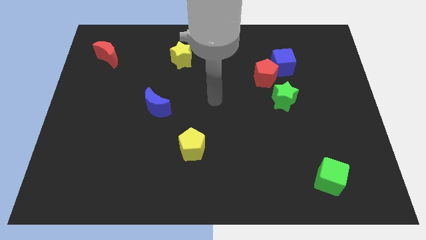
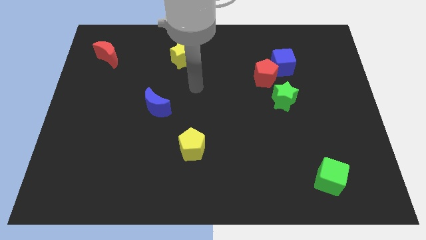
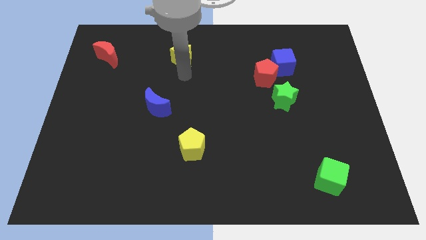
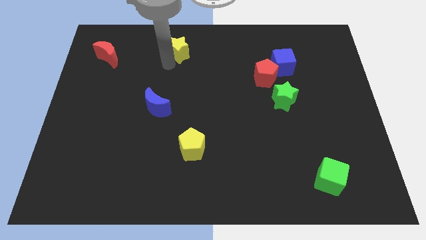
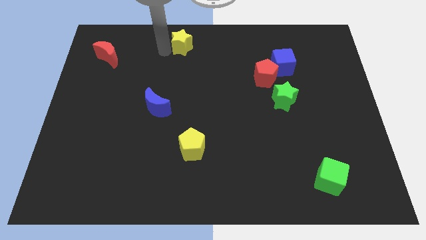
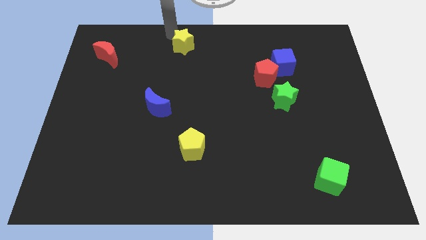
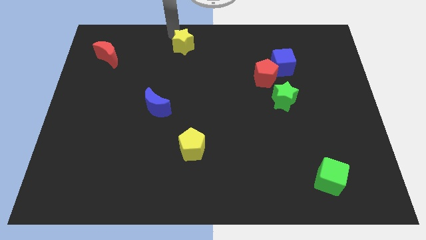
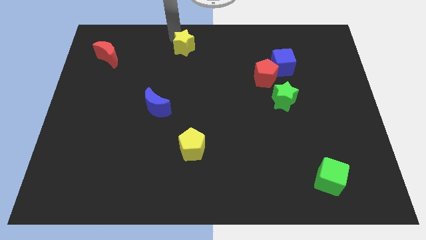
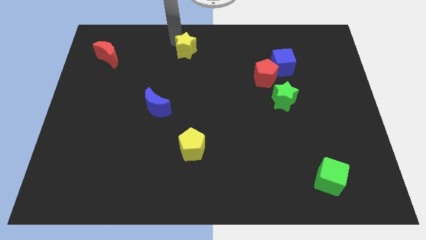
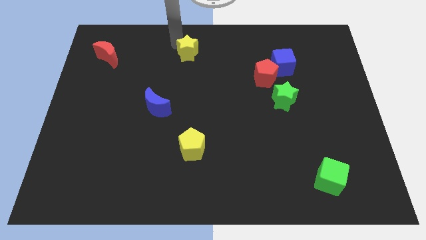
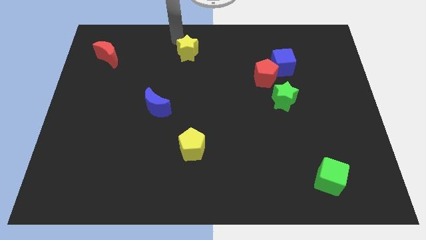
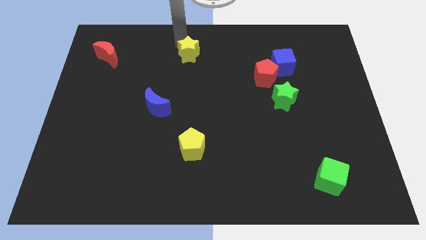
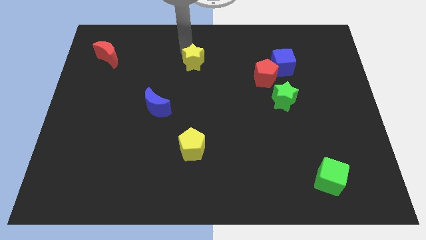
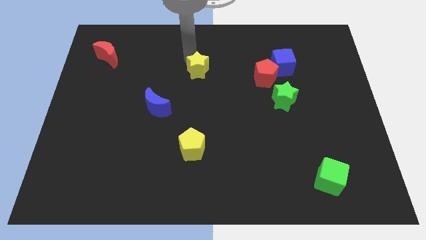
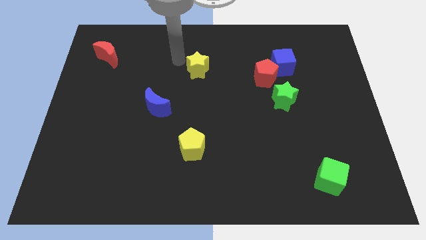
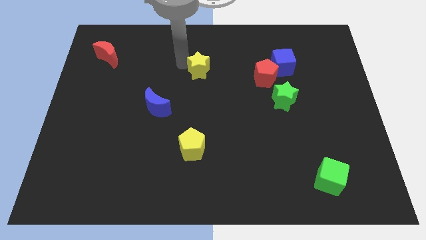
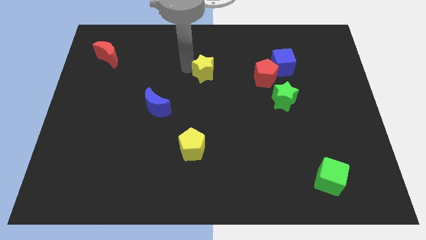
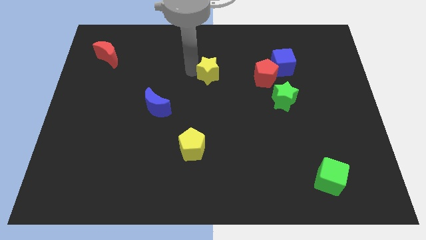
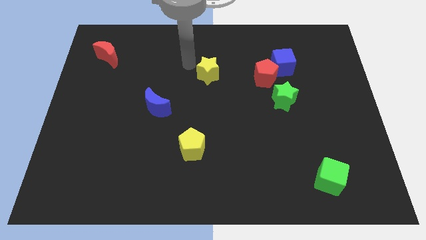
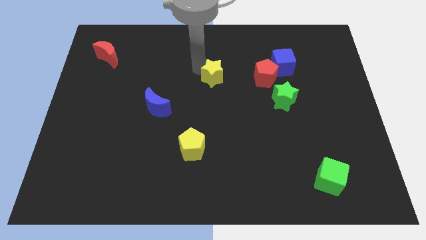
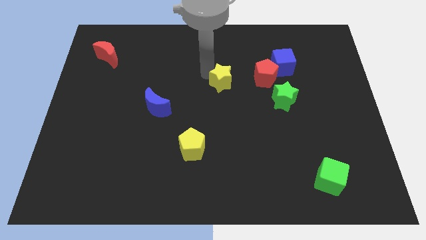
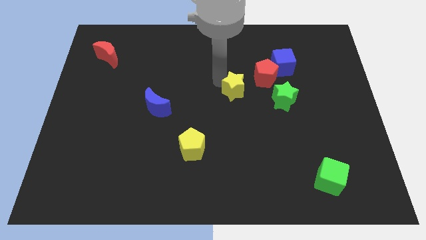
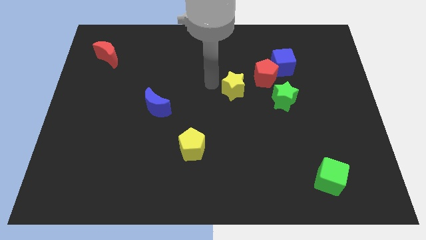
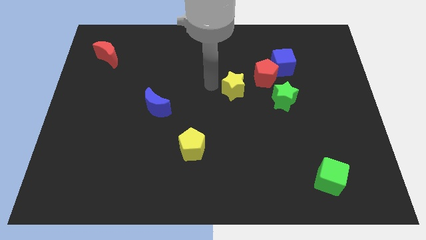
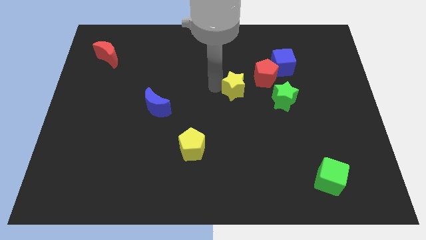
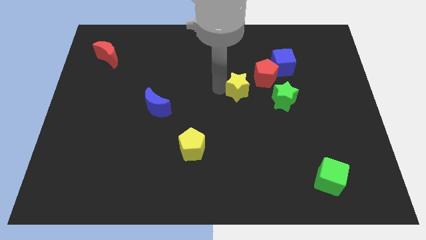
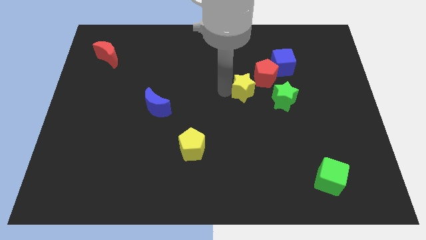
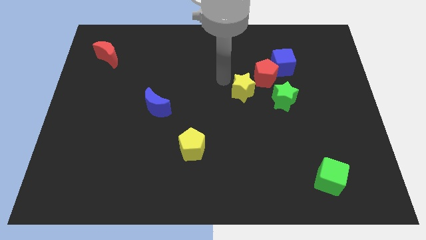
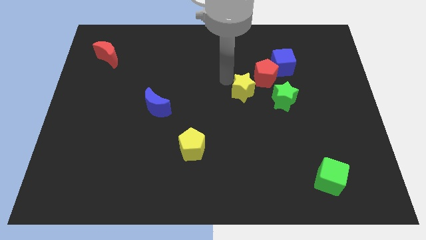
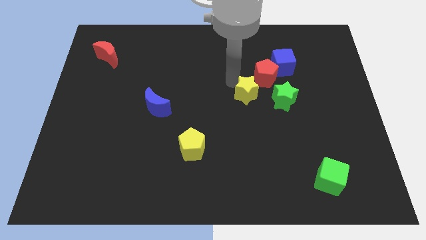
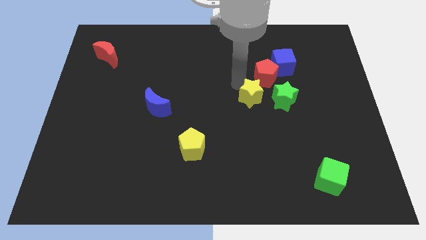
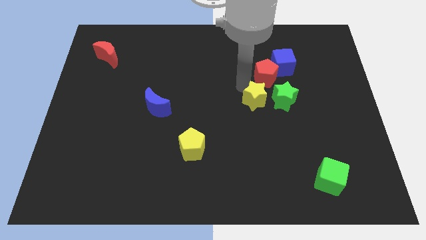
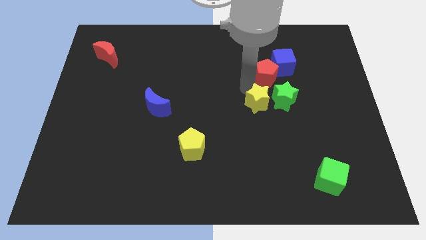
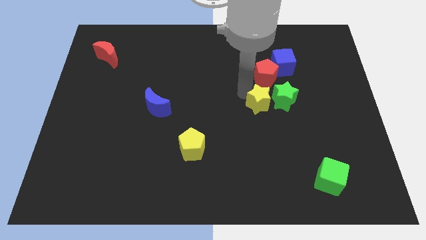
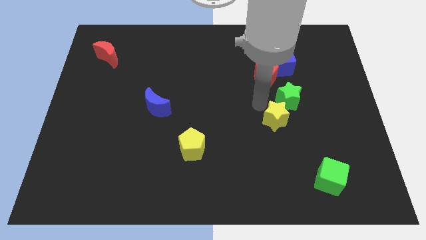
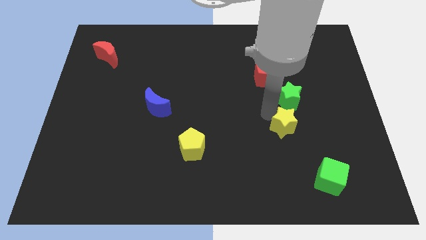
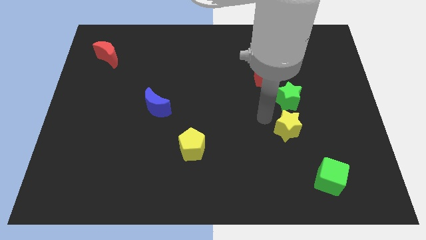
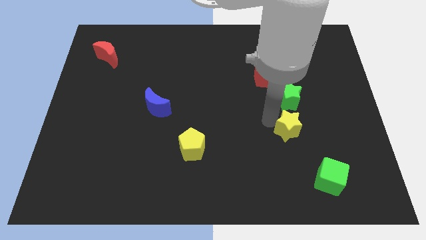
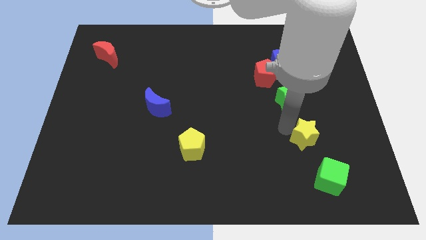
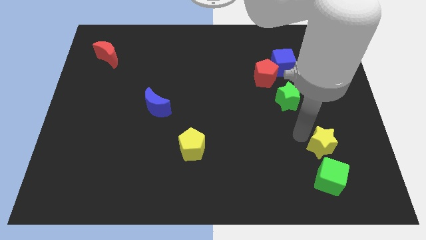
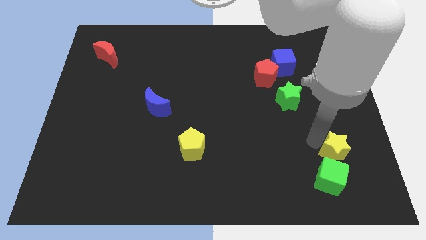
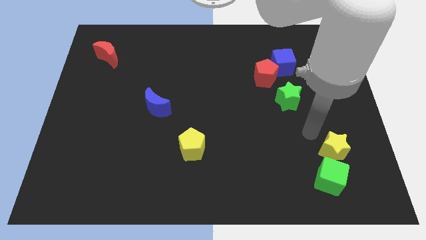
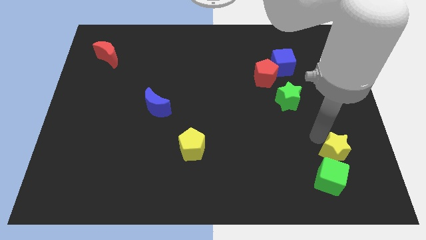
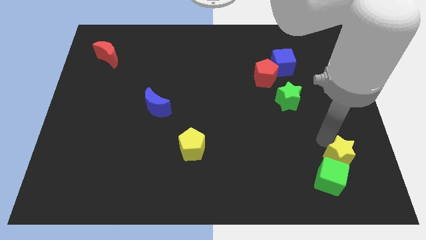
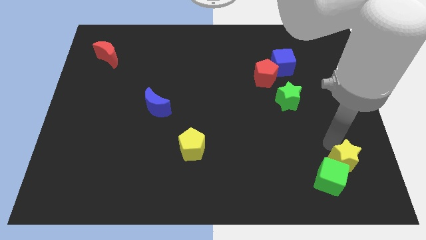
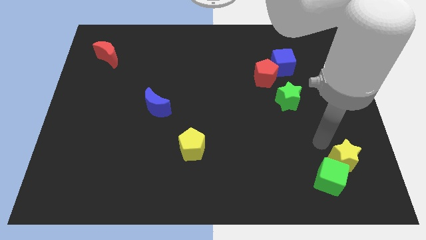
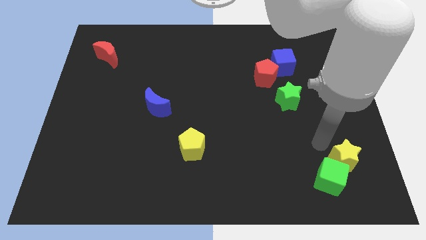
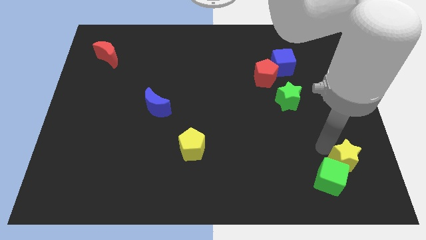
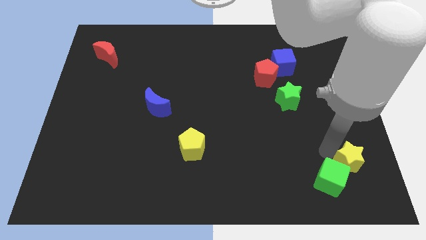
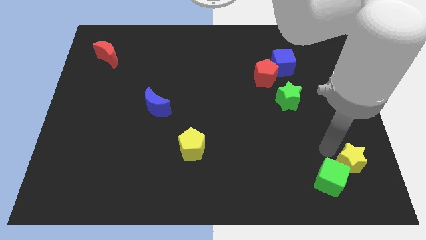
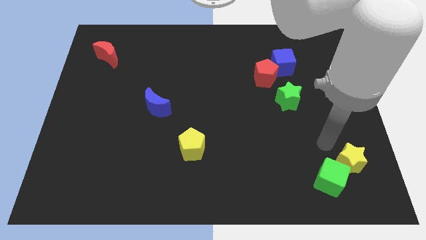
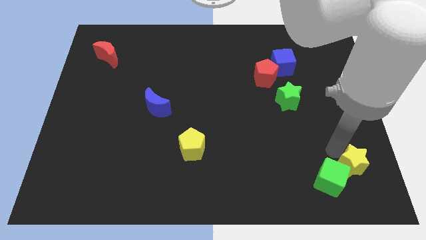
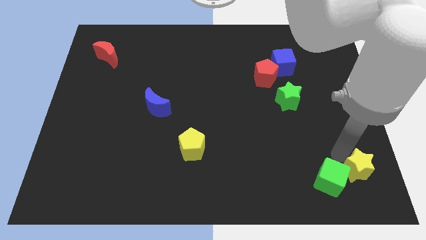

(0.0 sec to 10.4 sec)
put the yellow star to the bottom right of the board

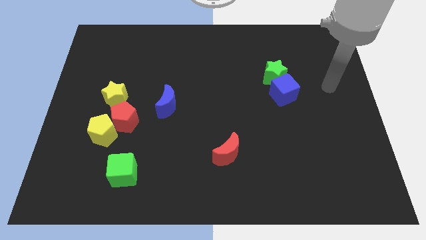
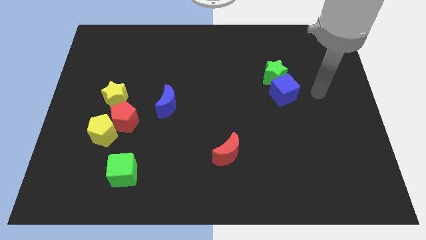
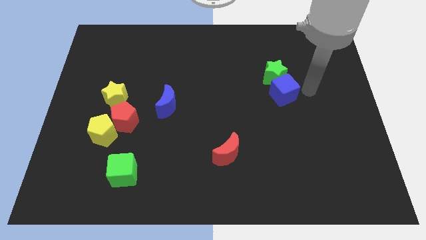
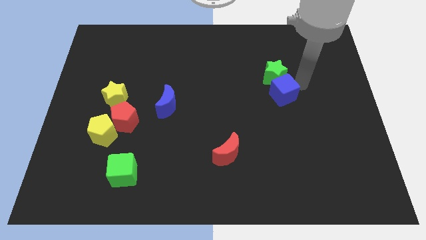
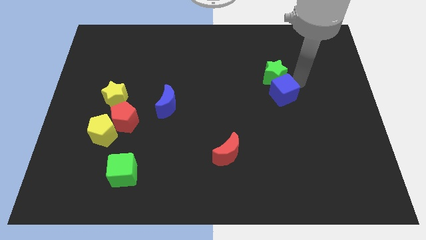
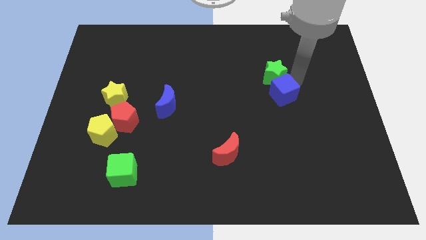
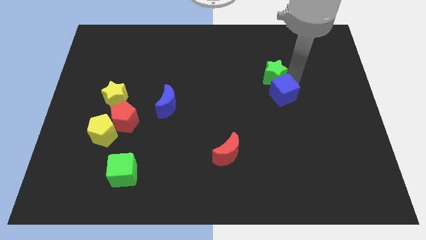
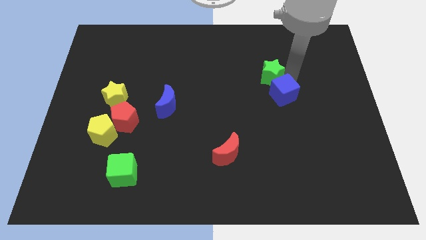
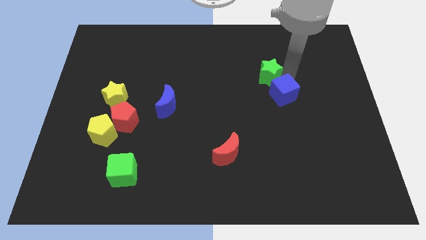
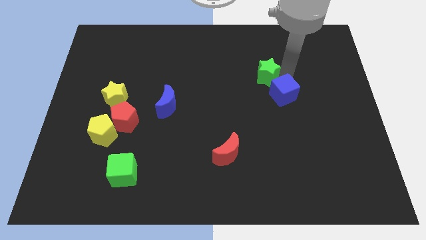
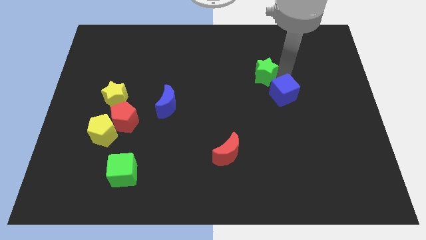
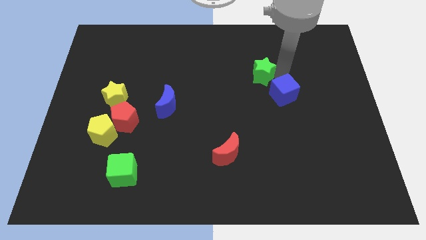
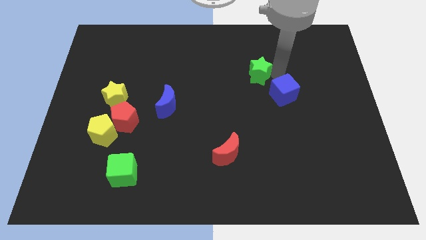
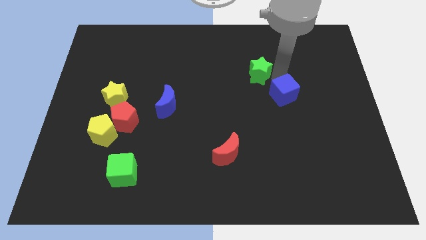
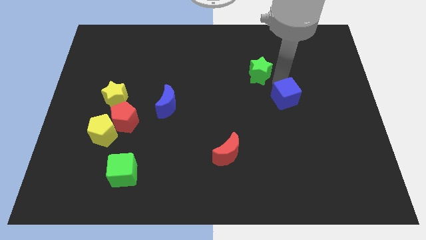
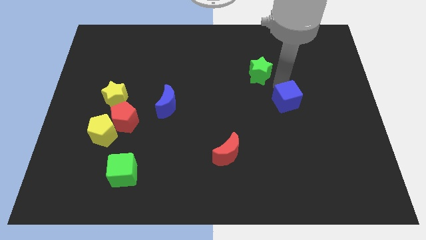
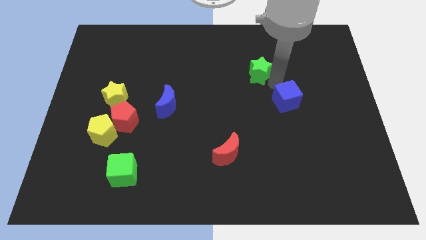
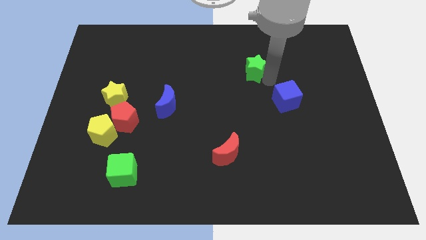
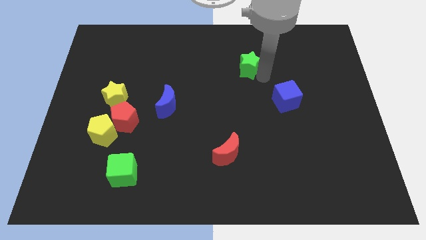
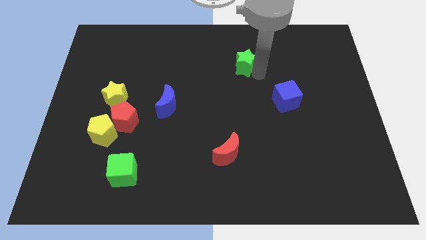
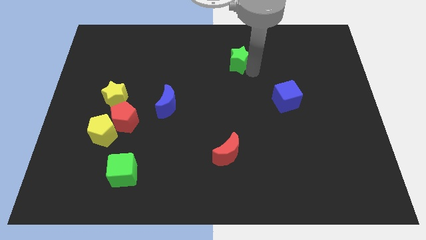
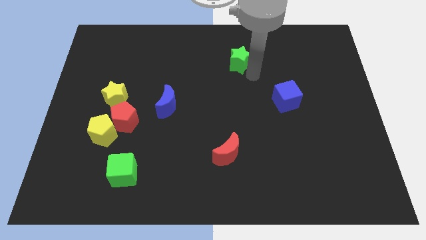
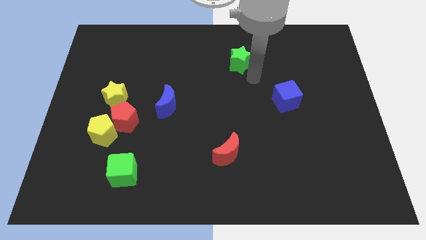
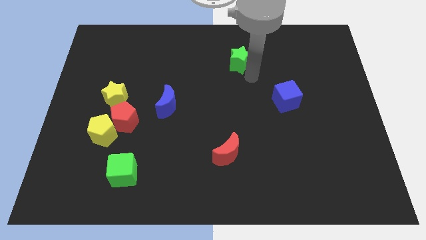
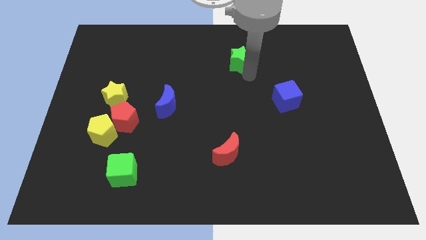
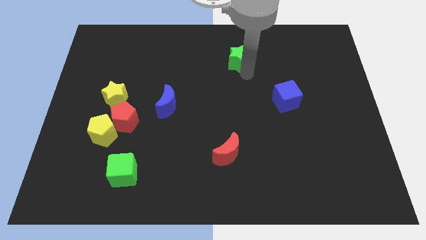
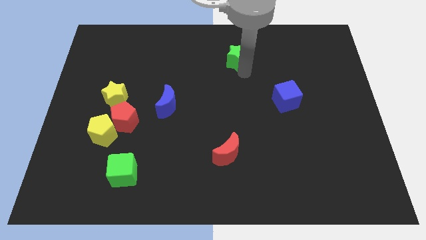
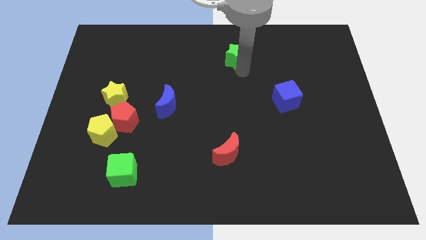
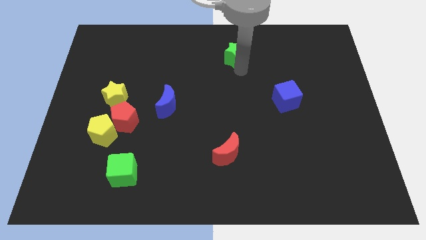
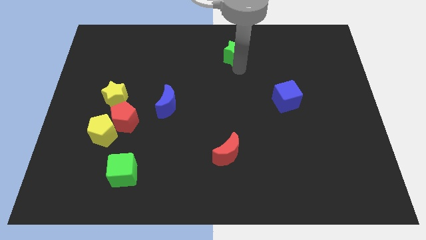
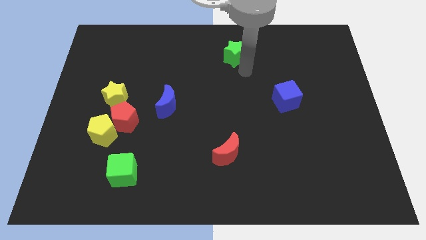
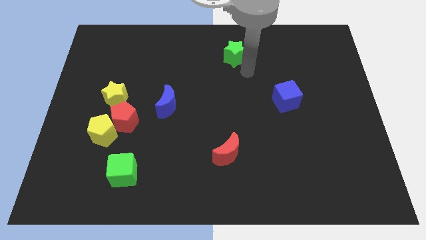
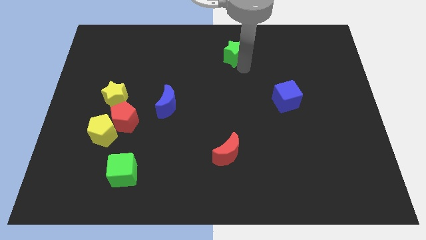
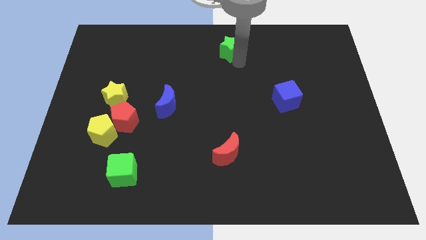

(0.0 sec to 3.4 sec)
move the green star to the top
